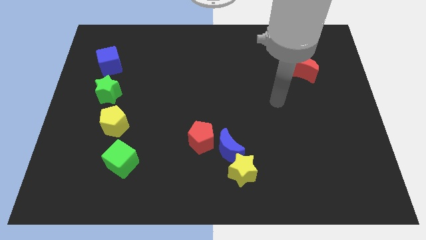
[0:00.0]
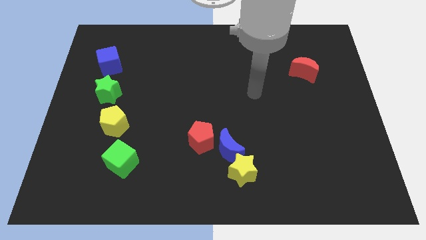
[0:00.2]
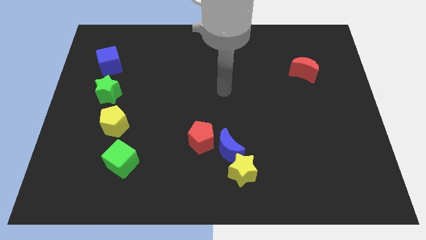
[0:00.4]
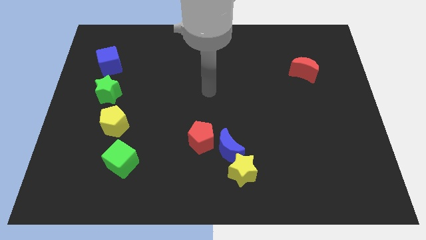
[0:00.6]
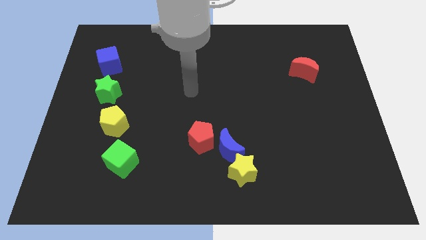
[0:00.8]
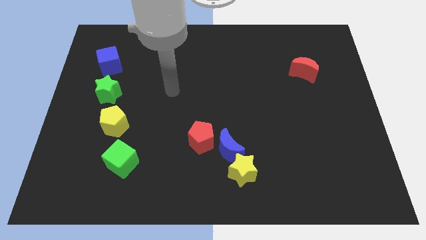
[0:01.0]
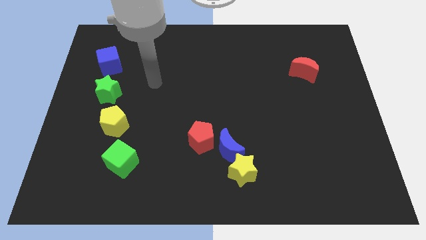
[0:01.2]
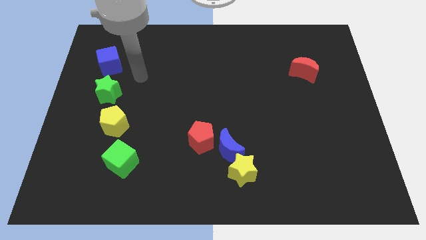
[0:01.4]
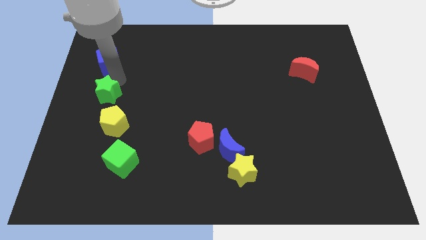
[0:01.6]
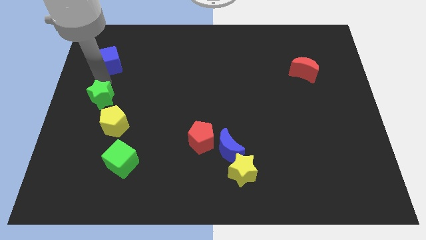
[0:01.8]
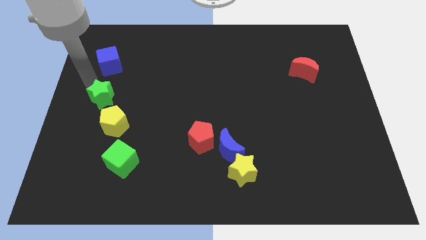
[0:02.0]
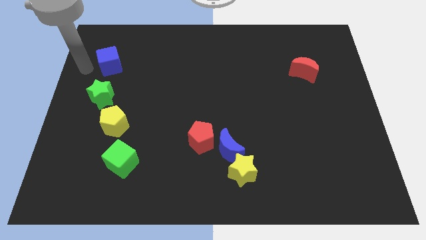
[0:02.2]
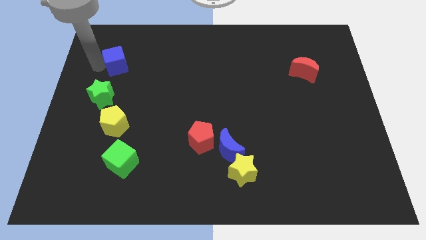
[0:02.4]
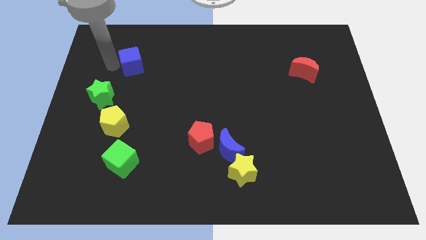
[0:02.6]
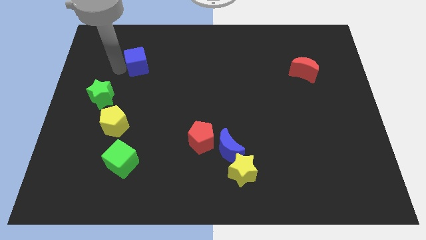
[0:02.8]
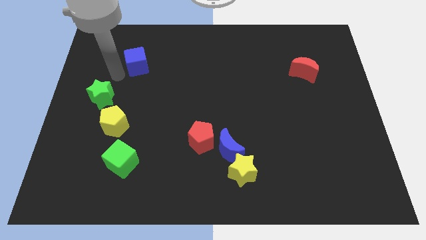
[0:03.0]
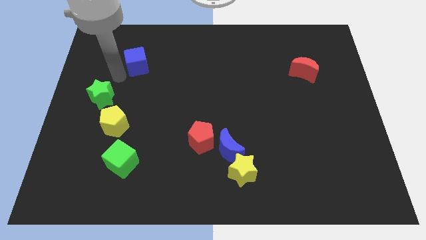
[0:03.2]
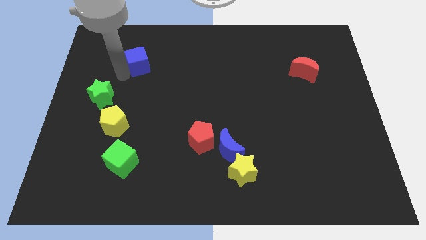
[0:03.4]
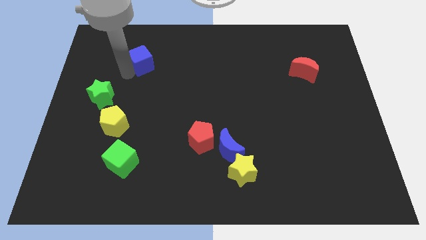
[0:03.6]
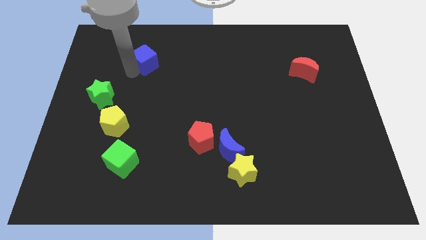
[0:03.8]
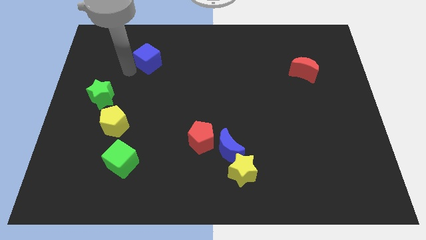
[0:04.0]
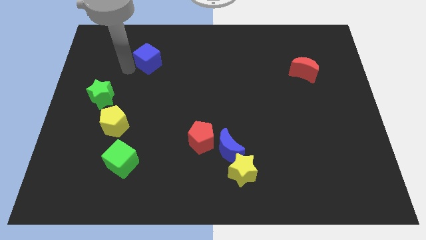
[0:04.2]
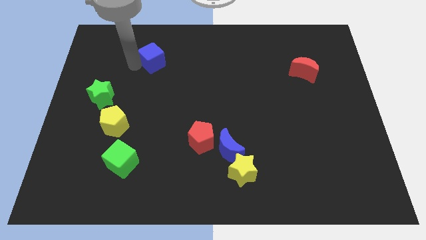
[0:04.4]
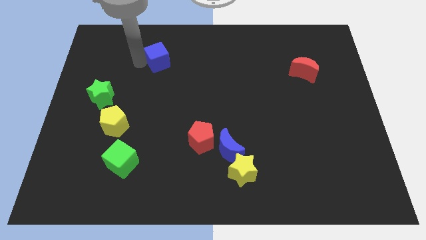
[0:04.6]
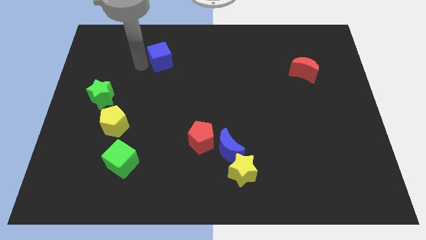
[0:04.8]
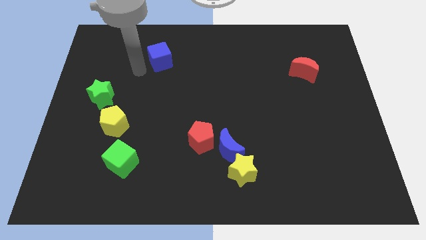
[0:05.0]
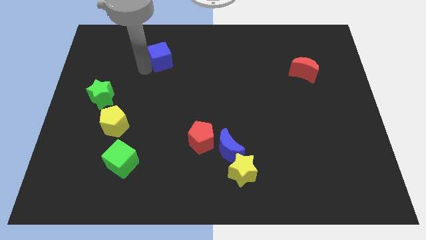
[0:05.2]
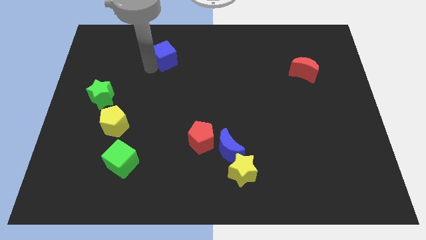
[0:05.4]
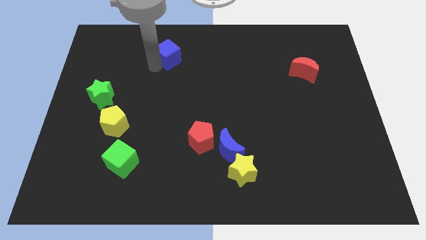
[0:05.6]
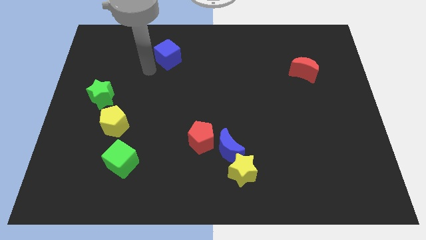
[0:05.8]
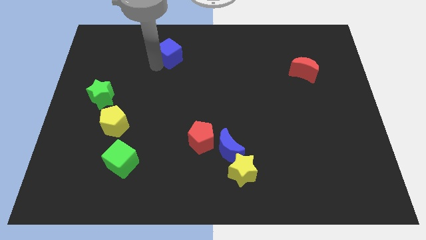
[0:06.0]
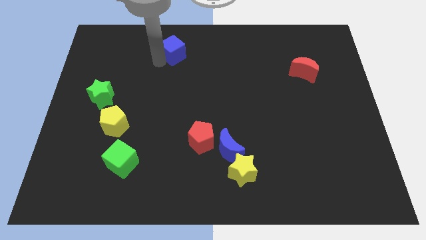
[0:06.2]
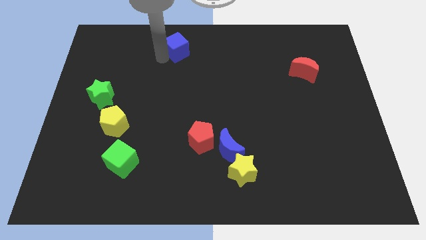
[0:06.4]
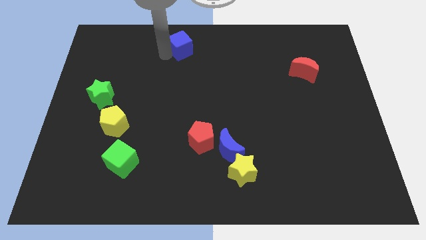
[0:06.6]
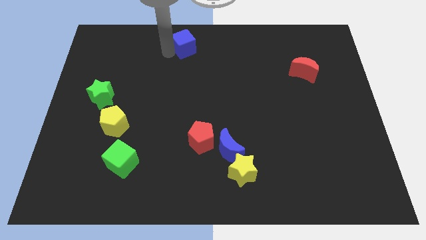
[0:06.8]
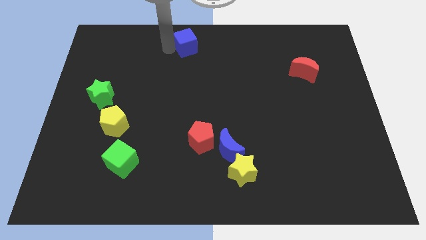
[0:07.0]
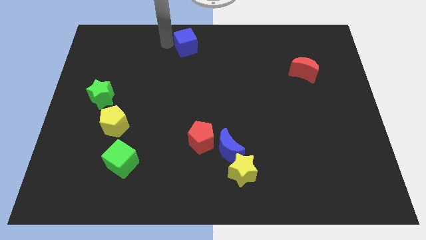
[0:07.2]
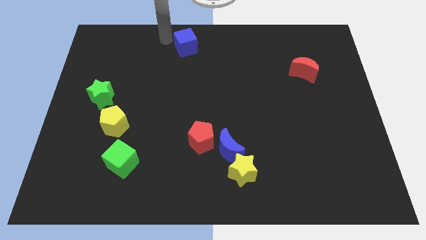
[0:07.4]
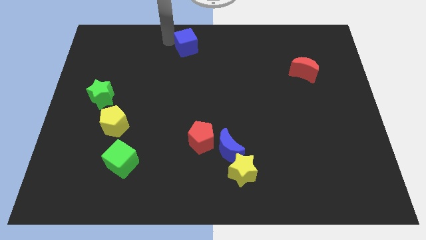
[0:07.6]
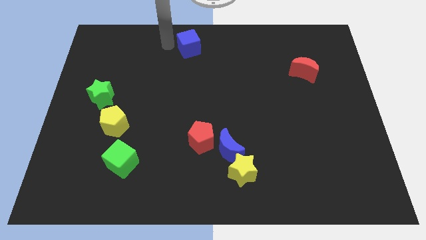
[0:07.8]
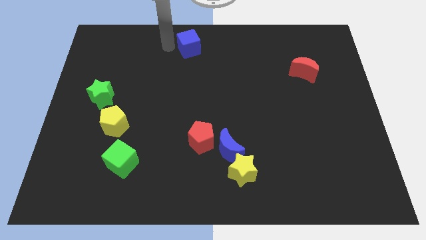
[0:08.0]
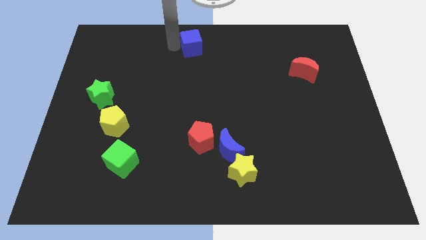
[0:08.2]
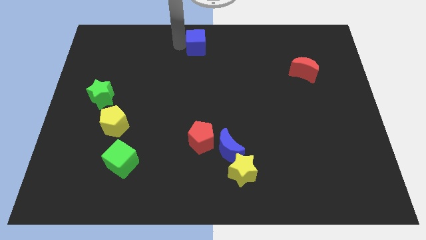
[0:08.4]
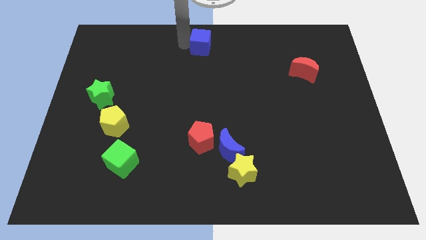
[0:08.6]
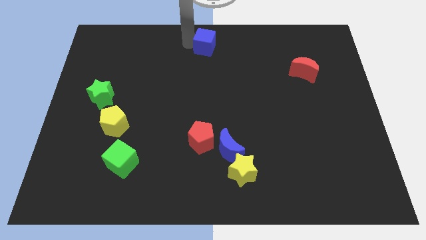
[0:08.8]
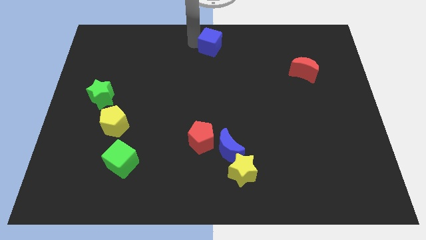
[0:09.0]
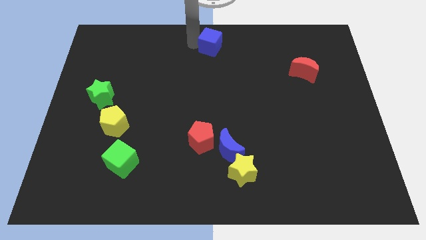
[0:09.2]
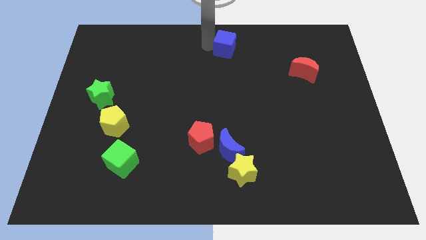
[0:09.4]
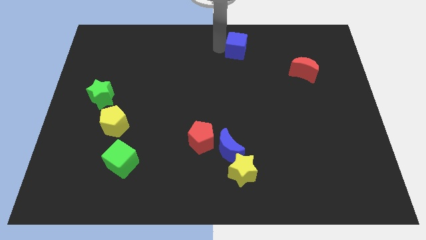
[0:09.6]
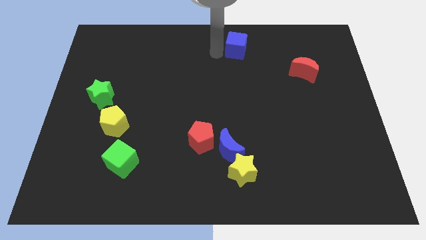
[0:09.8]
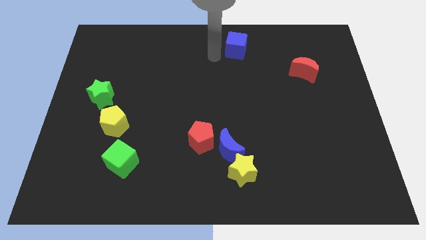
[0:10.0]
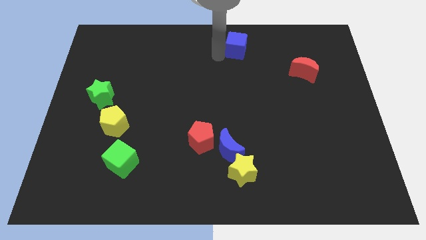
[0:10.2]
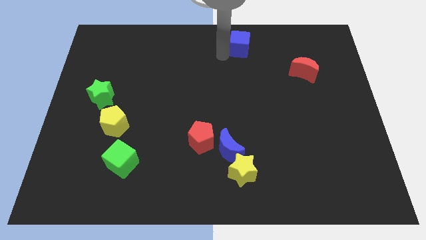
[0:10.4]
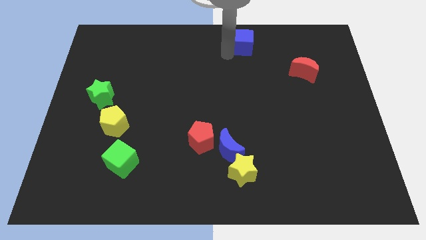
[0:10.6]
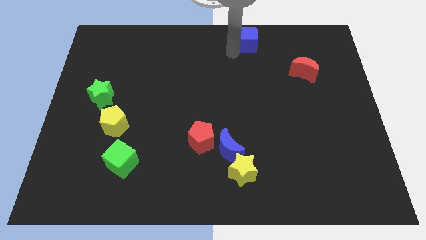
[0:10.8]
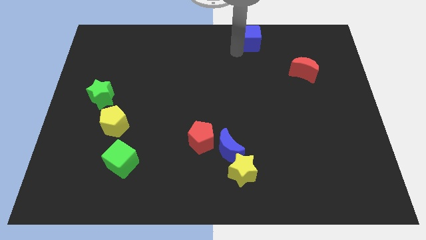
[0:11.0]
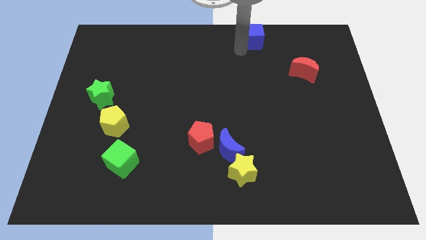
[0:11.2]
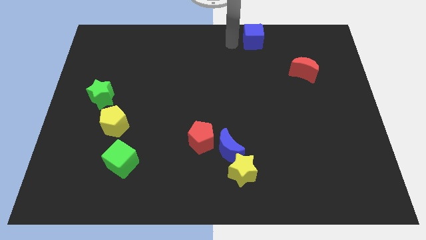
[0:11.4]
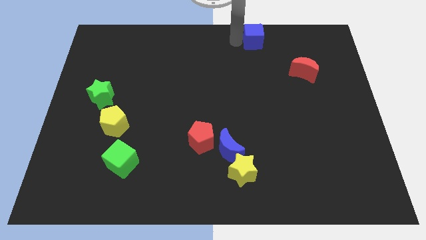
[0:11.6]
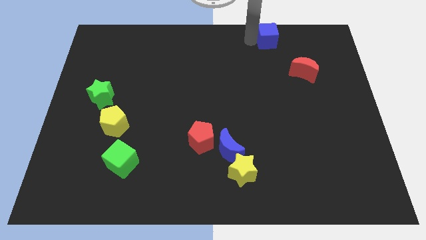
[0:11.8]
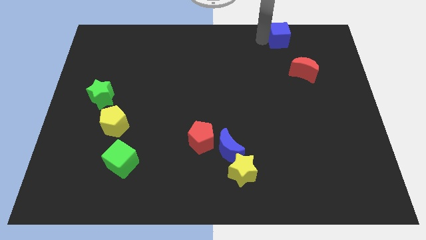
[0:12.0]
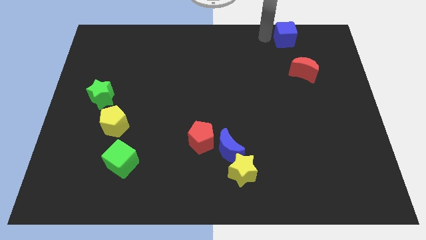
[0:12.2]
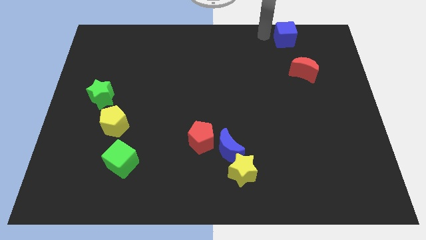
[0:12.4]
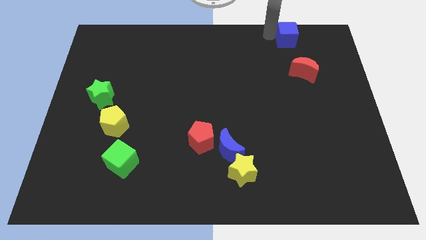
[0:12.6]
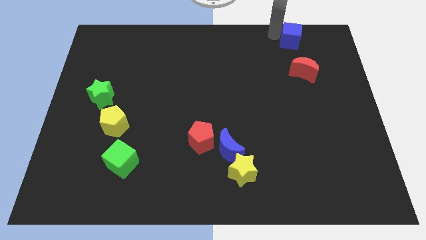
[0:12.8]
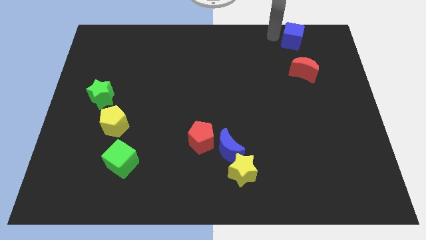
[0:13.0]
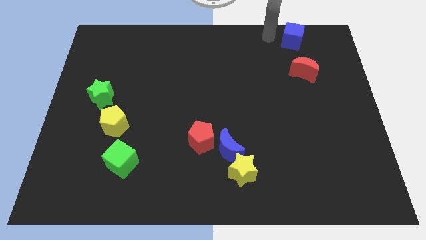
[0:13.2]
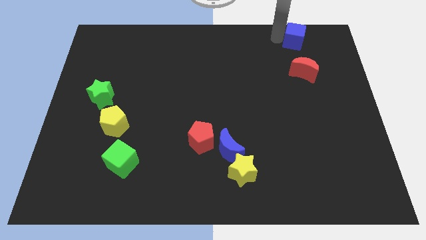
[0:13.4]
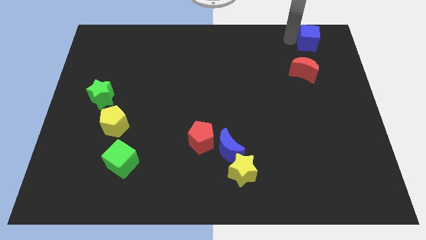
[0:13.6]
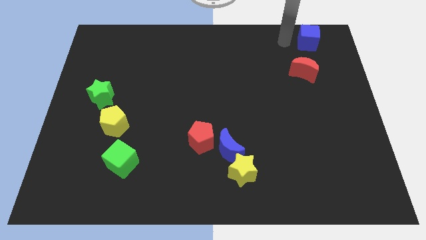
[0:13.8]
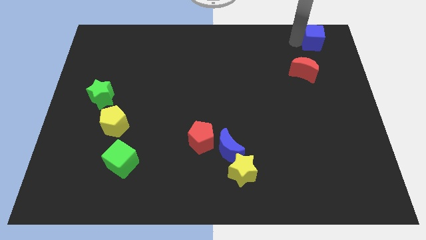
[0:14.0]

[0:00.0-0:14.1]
put the blue cube to the top right of the board

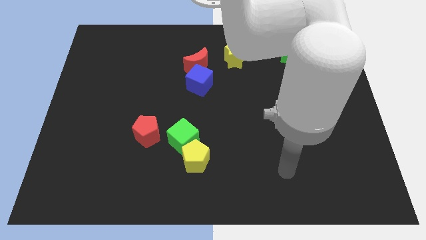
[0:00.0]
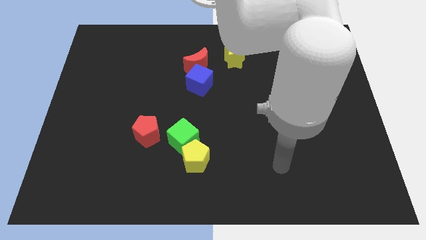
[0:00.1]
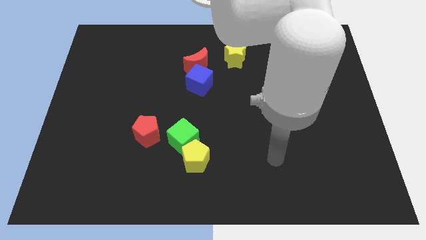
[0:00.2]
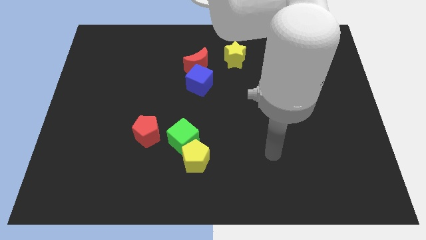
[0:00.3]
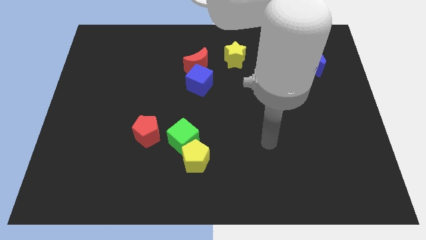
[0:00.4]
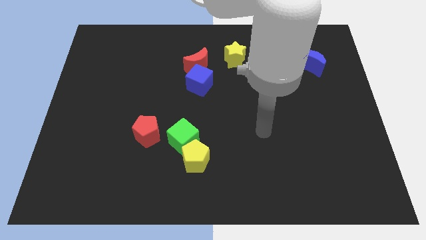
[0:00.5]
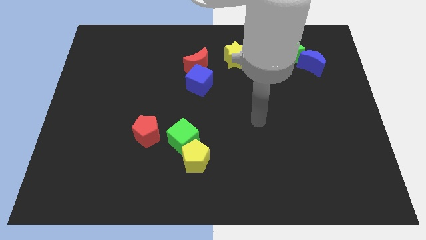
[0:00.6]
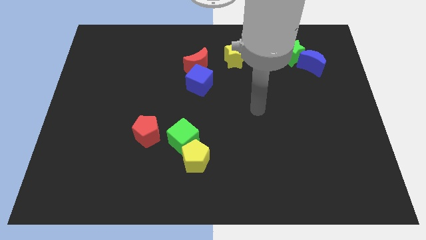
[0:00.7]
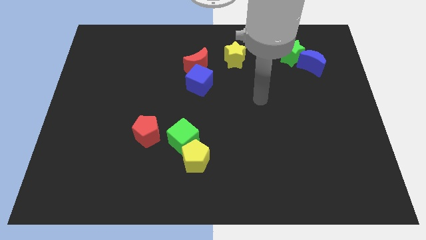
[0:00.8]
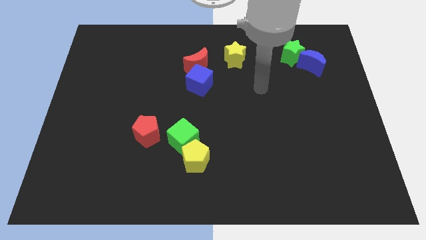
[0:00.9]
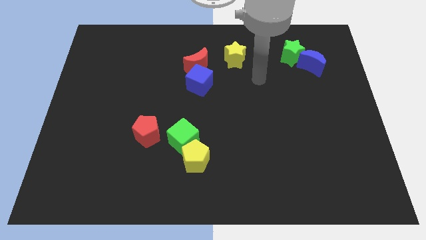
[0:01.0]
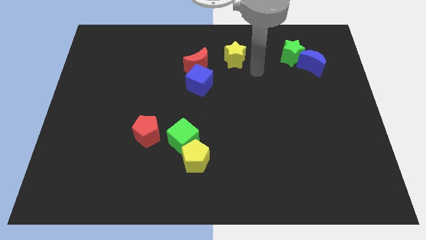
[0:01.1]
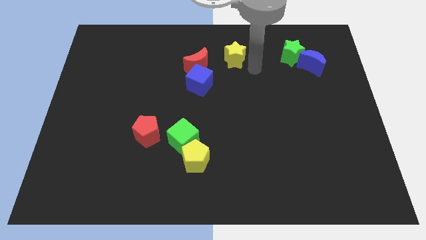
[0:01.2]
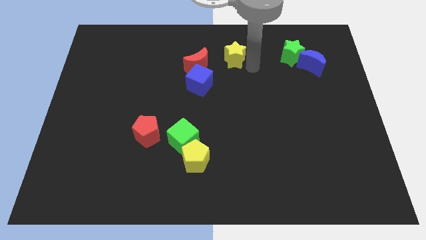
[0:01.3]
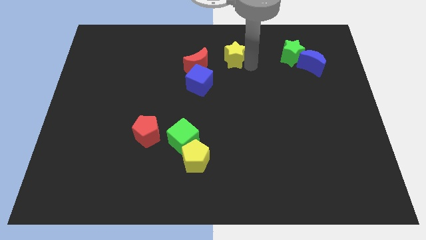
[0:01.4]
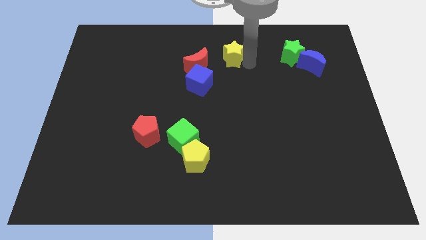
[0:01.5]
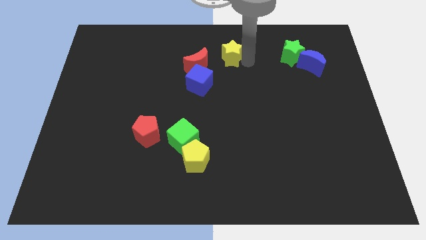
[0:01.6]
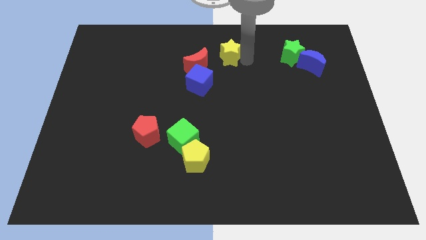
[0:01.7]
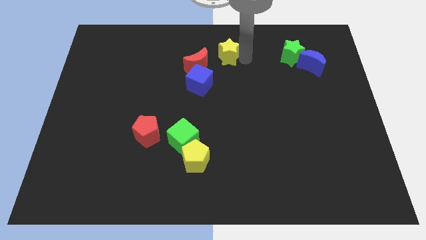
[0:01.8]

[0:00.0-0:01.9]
put the yellow star to the top
